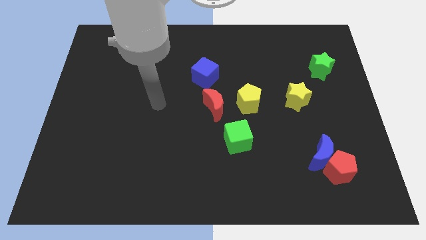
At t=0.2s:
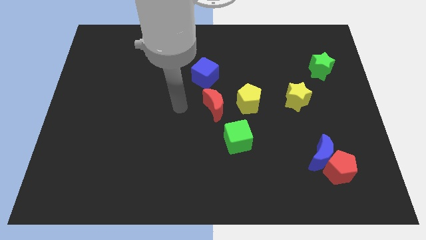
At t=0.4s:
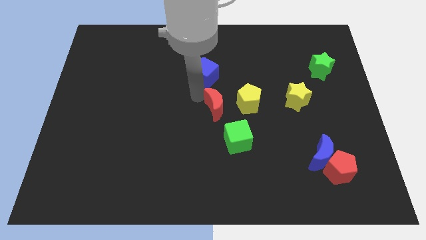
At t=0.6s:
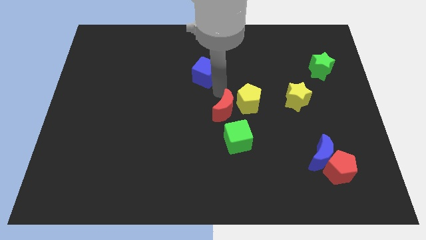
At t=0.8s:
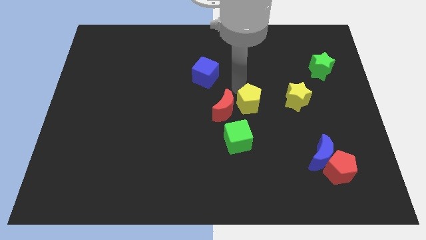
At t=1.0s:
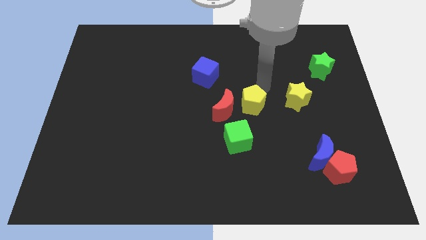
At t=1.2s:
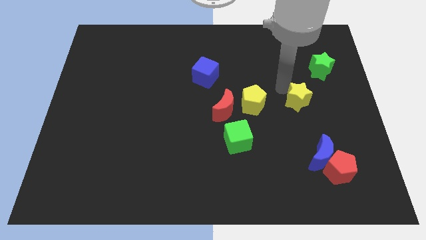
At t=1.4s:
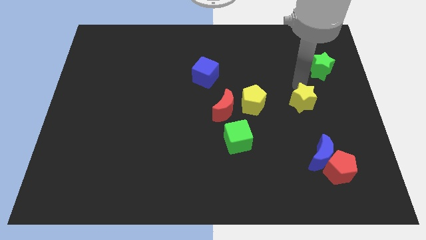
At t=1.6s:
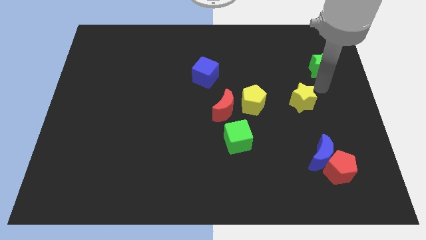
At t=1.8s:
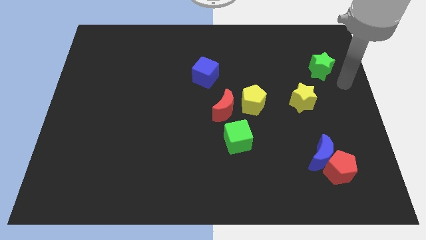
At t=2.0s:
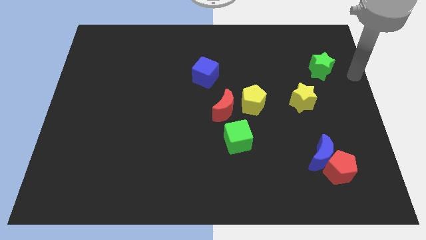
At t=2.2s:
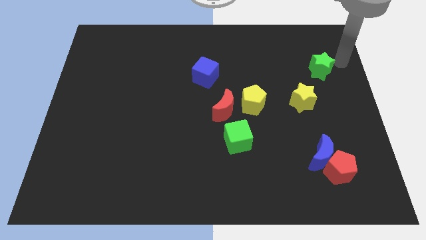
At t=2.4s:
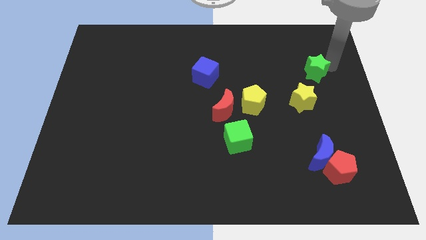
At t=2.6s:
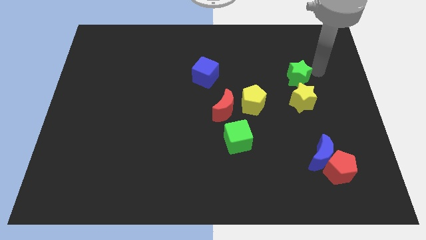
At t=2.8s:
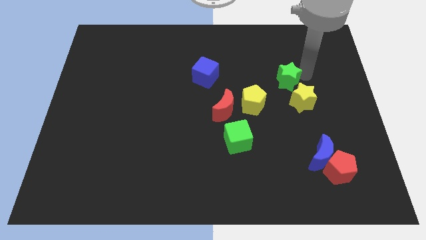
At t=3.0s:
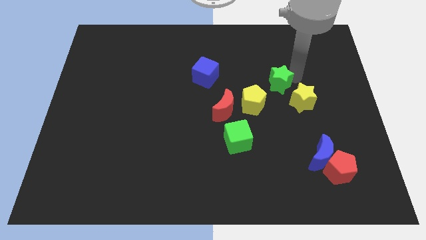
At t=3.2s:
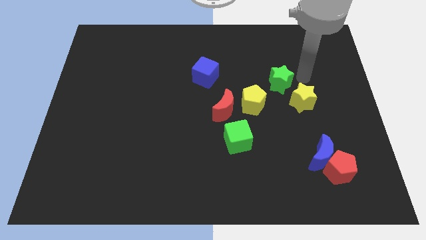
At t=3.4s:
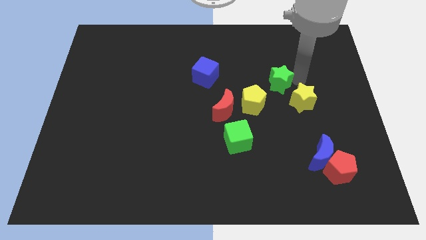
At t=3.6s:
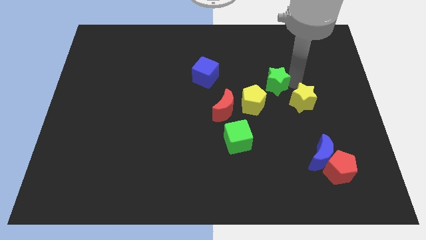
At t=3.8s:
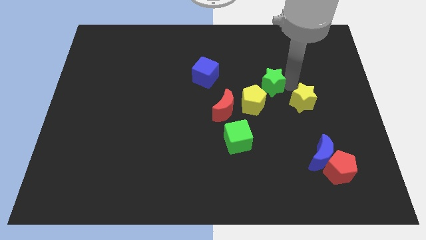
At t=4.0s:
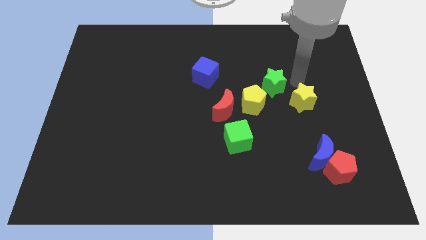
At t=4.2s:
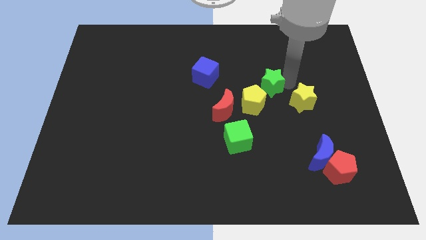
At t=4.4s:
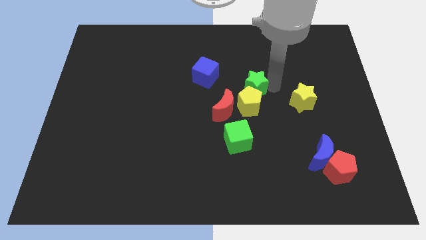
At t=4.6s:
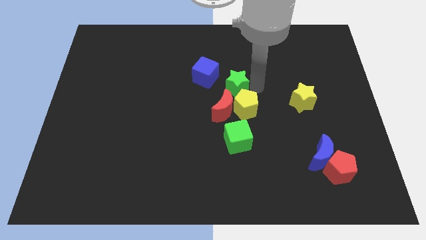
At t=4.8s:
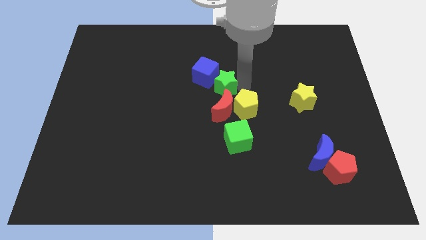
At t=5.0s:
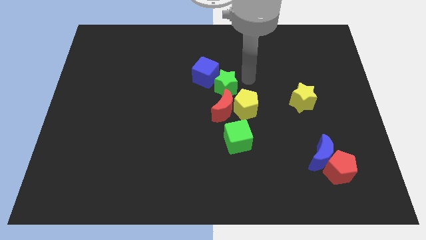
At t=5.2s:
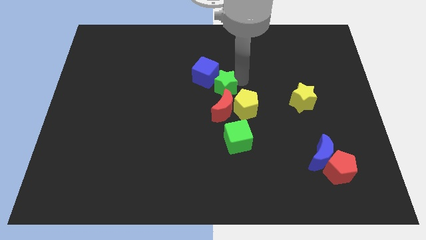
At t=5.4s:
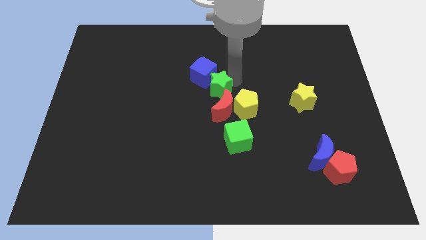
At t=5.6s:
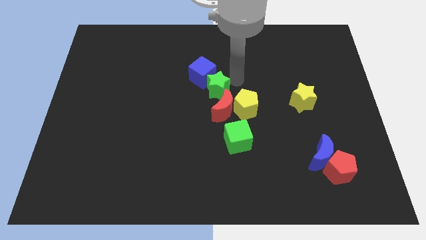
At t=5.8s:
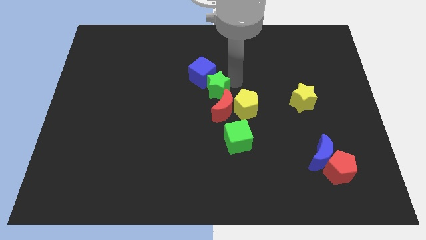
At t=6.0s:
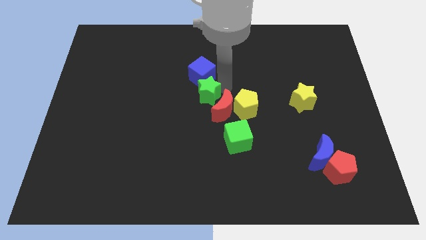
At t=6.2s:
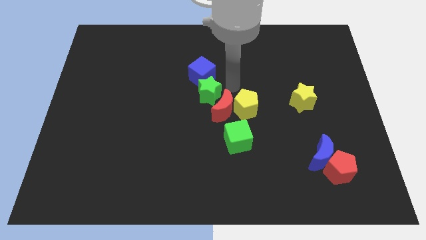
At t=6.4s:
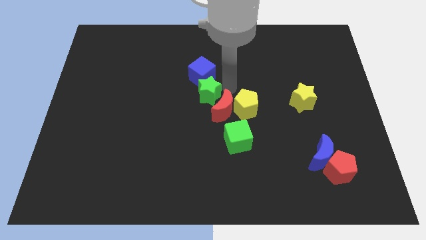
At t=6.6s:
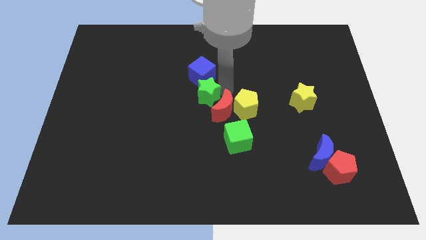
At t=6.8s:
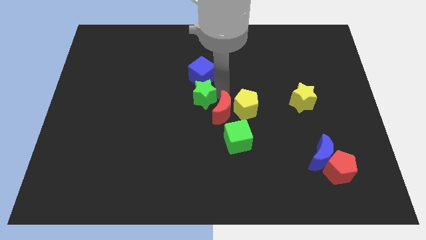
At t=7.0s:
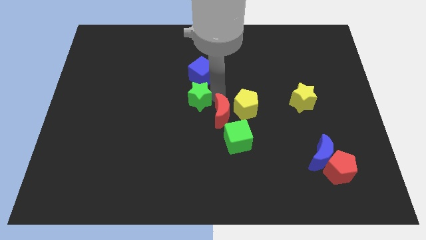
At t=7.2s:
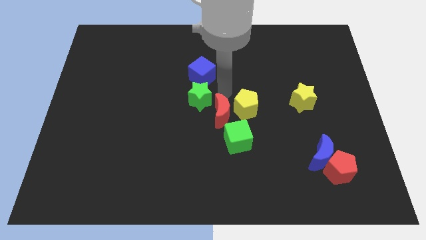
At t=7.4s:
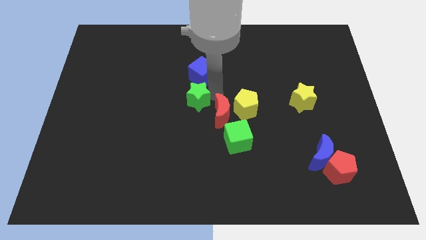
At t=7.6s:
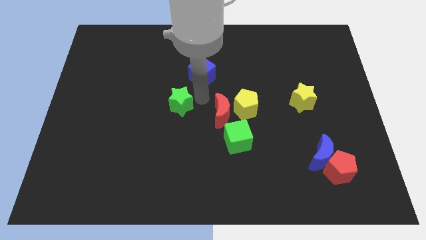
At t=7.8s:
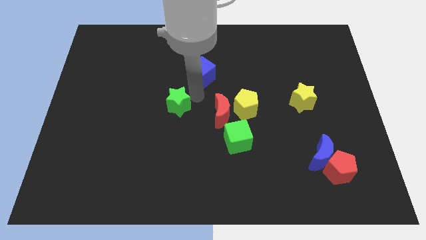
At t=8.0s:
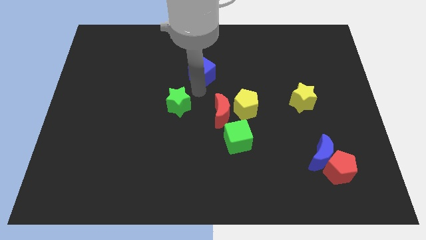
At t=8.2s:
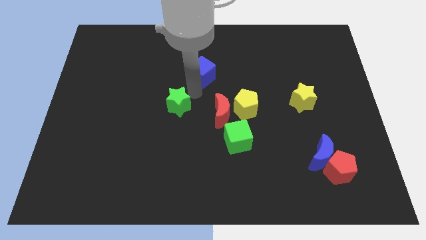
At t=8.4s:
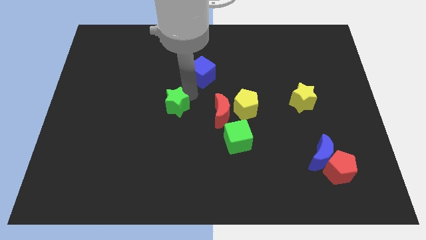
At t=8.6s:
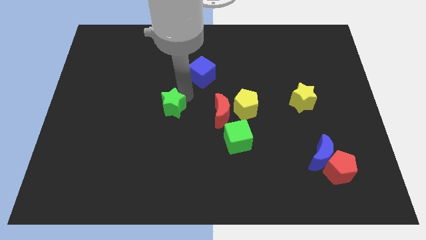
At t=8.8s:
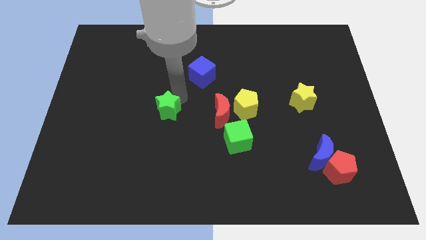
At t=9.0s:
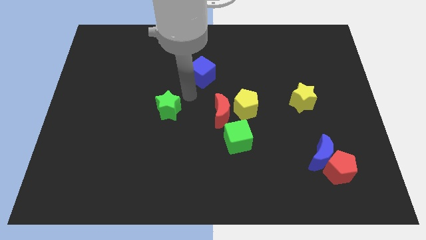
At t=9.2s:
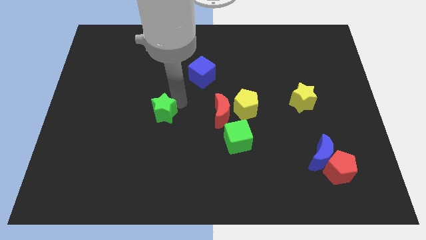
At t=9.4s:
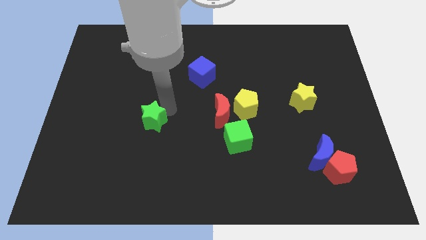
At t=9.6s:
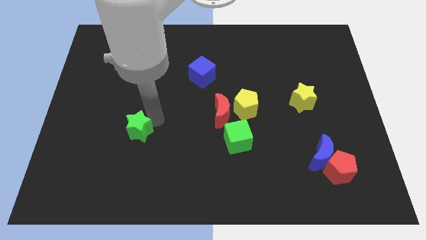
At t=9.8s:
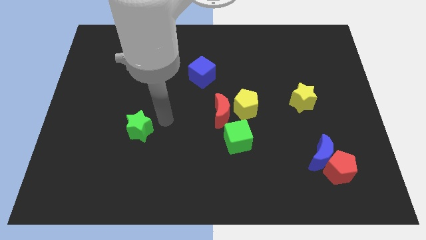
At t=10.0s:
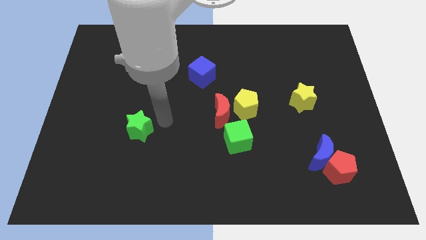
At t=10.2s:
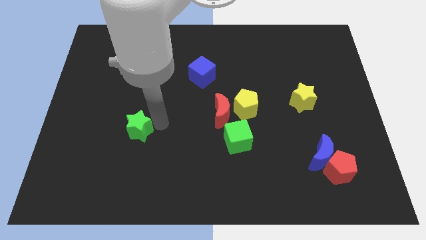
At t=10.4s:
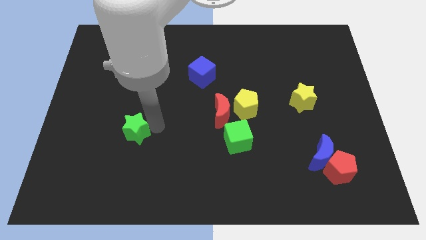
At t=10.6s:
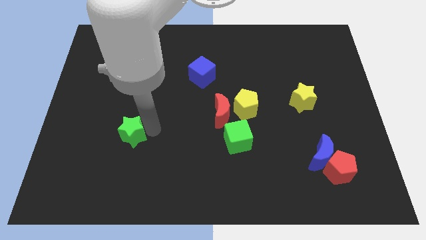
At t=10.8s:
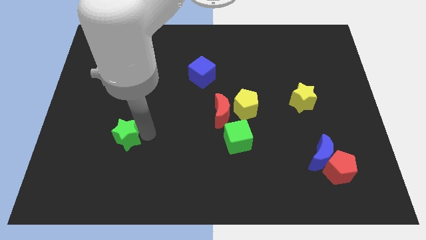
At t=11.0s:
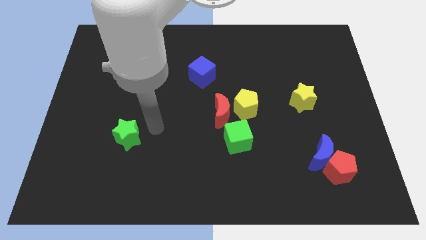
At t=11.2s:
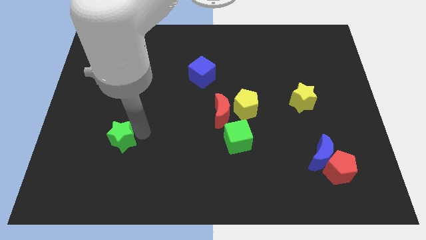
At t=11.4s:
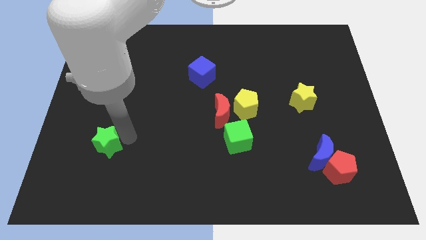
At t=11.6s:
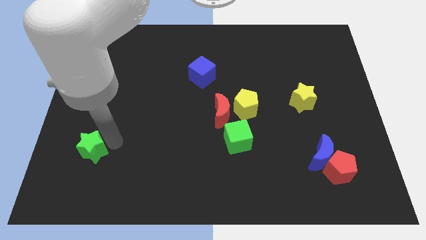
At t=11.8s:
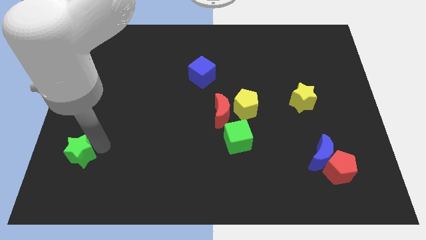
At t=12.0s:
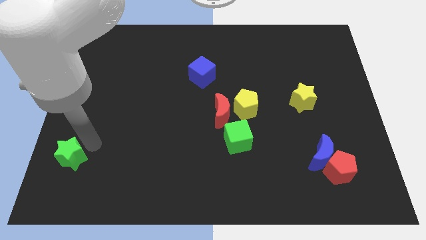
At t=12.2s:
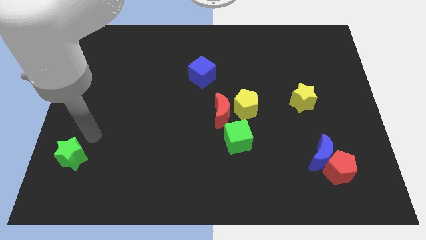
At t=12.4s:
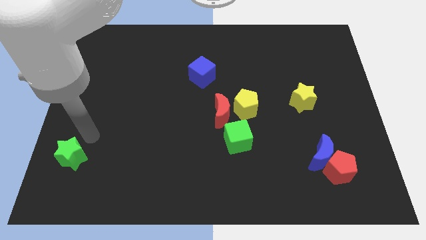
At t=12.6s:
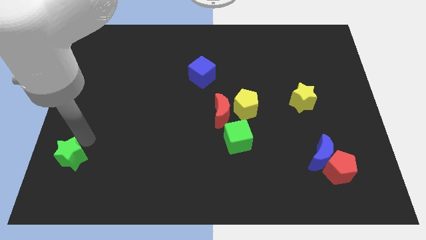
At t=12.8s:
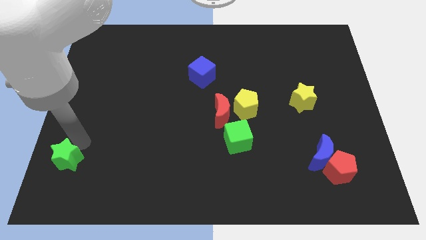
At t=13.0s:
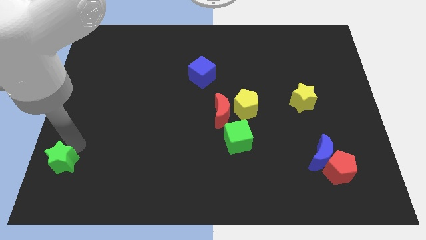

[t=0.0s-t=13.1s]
push the green star to the bottom left of the board
